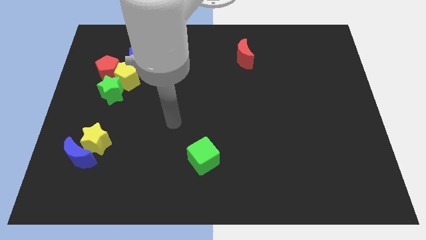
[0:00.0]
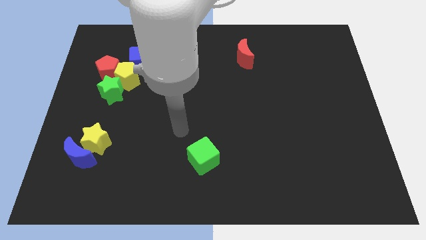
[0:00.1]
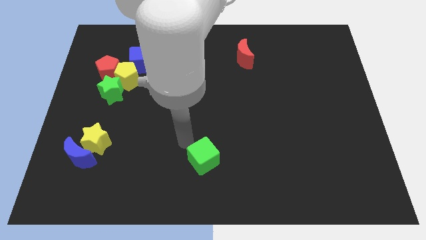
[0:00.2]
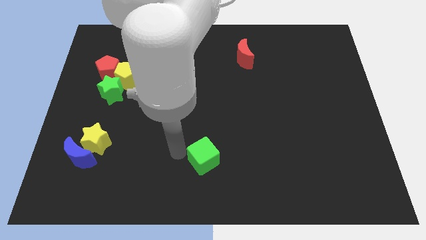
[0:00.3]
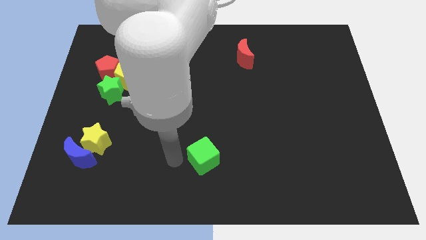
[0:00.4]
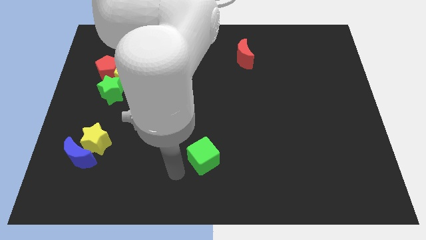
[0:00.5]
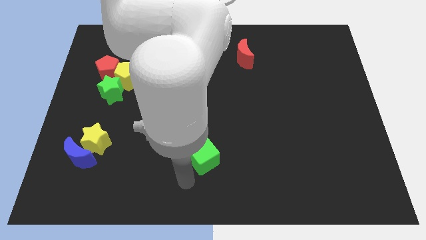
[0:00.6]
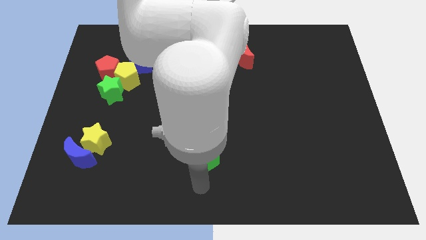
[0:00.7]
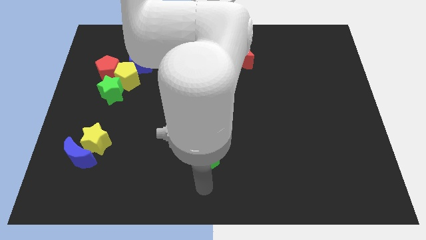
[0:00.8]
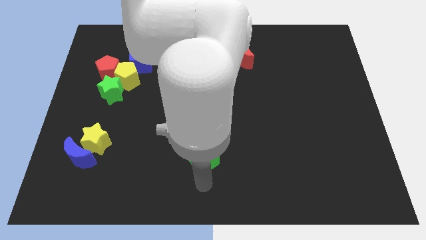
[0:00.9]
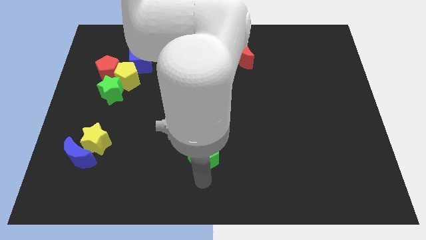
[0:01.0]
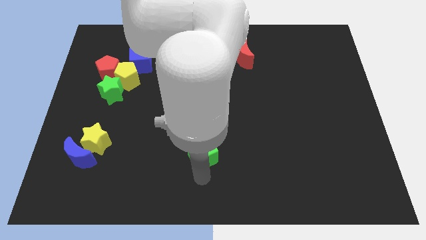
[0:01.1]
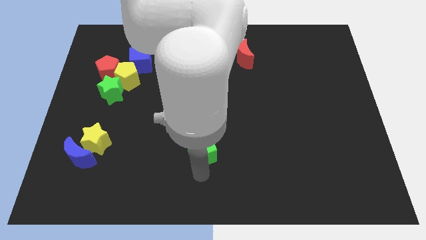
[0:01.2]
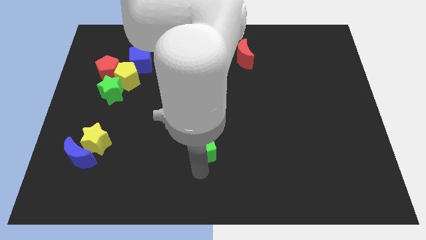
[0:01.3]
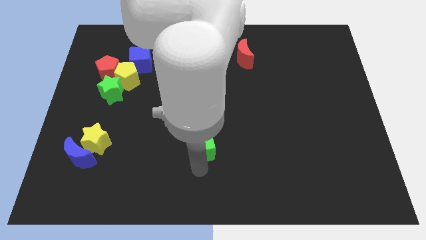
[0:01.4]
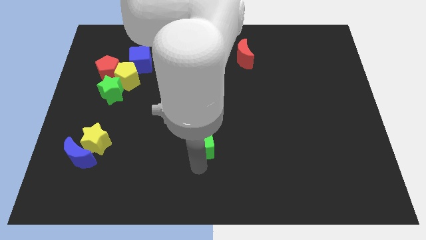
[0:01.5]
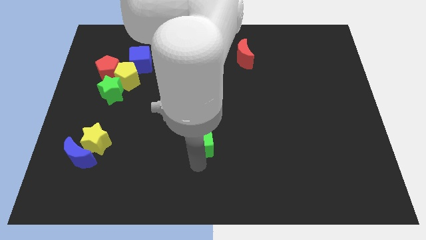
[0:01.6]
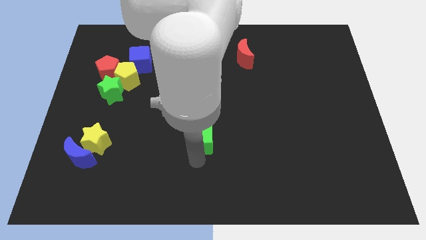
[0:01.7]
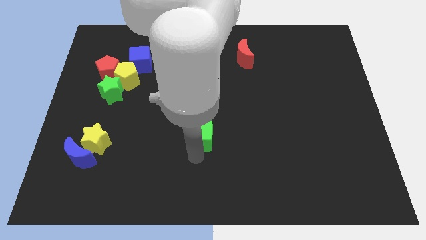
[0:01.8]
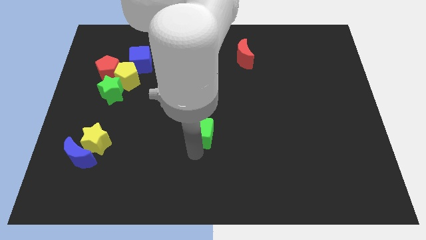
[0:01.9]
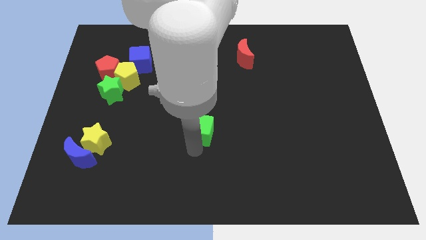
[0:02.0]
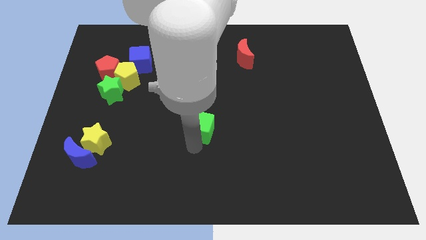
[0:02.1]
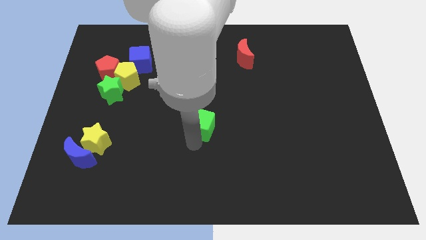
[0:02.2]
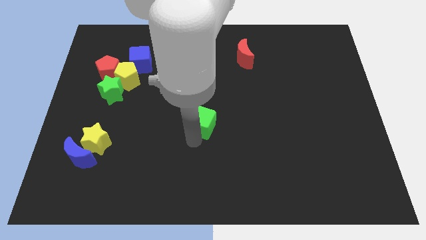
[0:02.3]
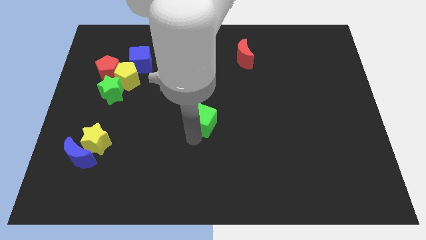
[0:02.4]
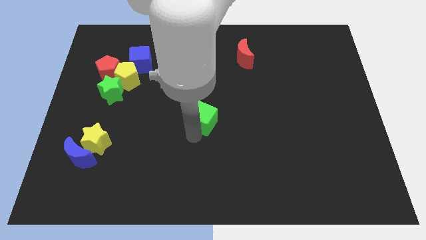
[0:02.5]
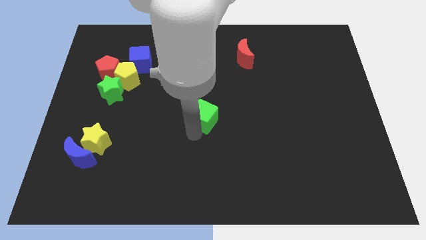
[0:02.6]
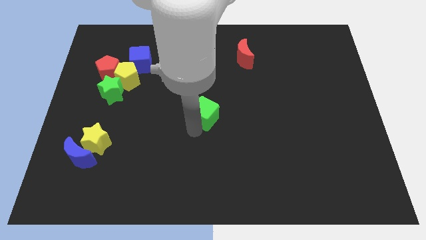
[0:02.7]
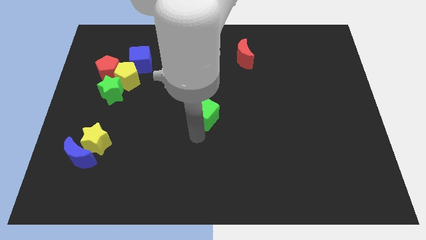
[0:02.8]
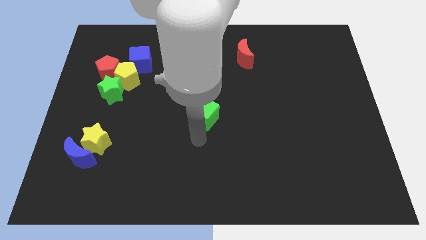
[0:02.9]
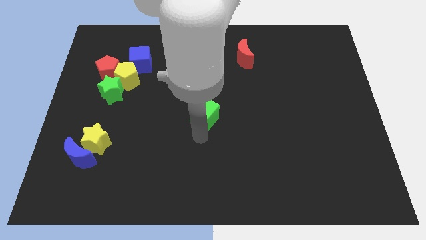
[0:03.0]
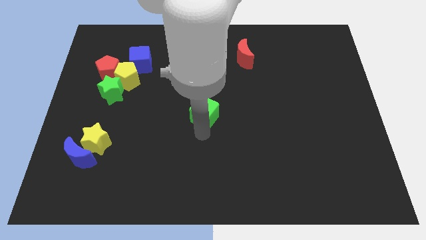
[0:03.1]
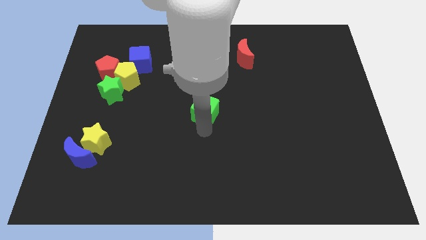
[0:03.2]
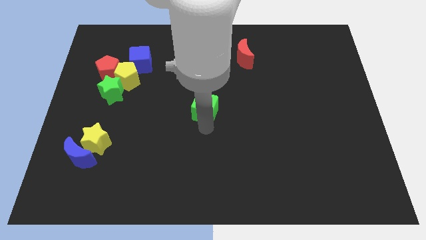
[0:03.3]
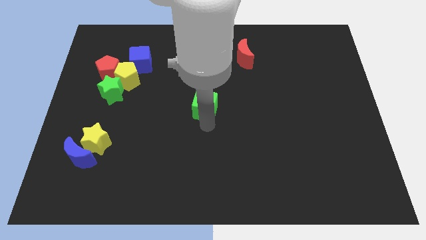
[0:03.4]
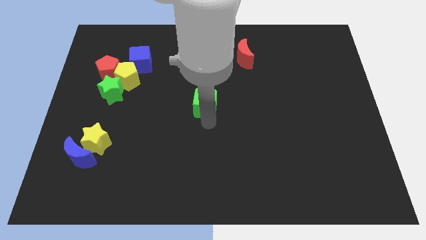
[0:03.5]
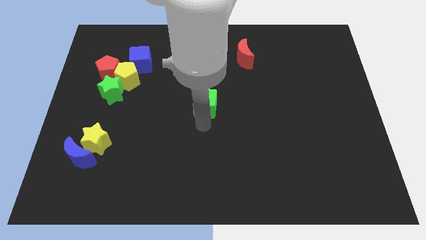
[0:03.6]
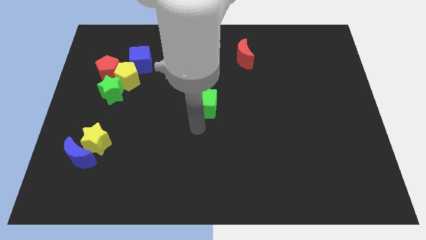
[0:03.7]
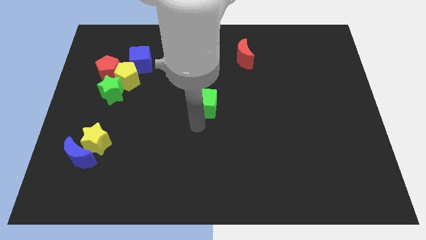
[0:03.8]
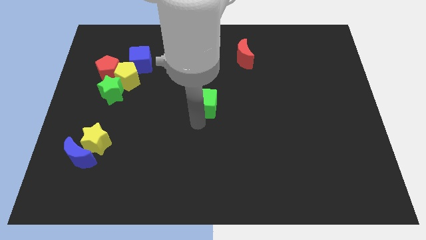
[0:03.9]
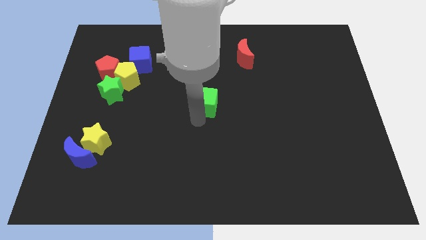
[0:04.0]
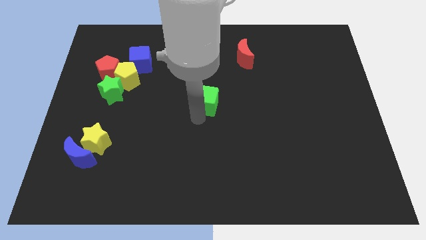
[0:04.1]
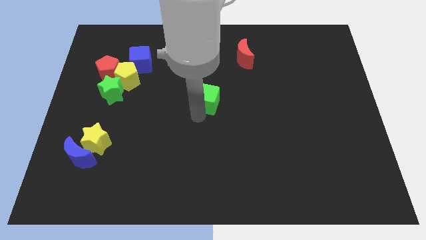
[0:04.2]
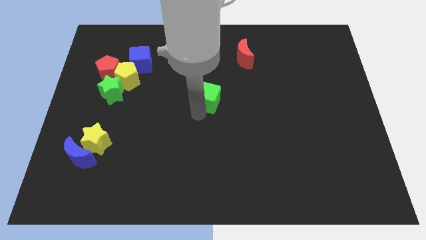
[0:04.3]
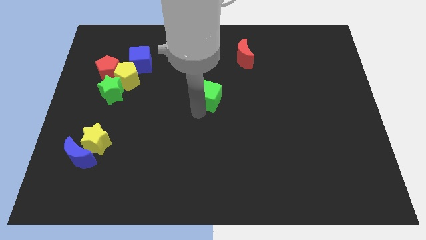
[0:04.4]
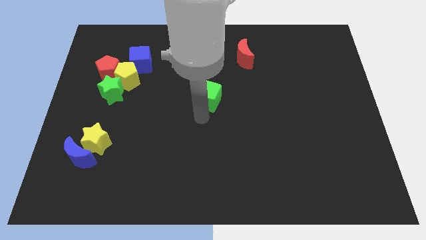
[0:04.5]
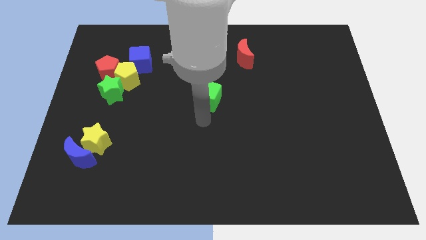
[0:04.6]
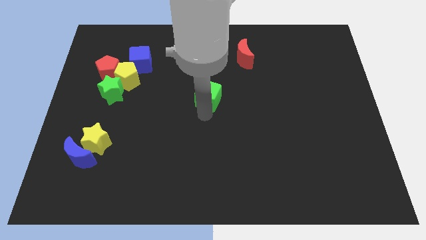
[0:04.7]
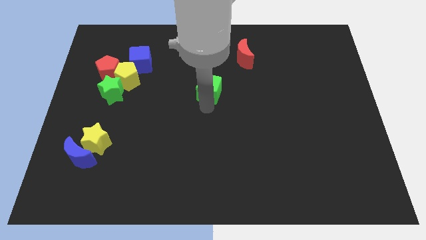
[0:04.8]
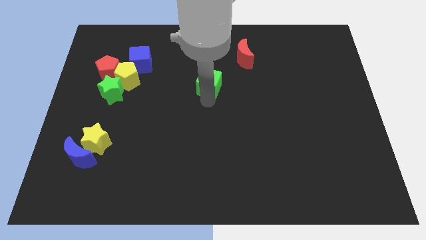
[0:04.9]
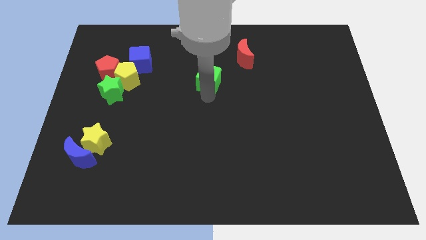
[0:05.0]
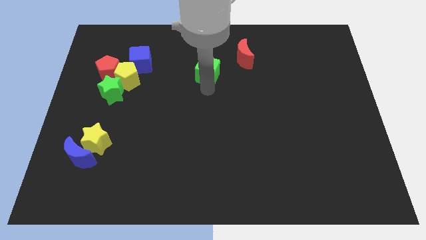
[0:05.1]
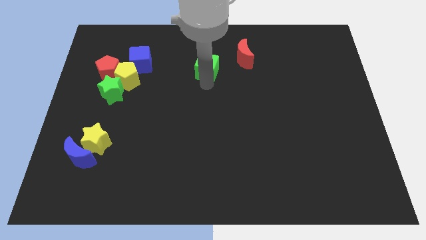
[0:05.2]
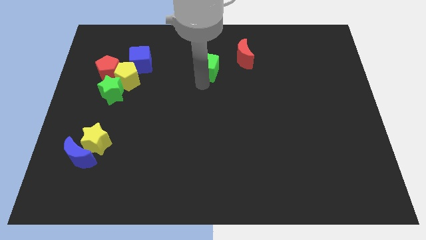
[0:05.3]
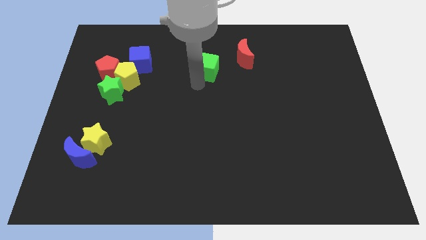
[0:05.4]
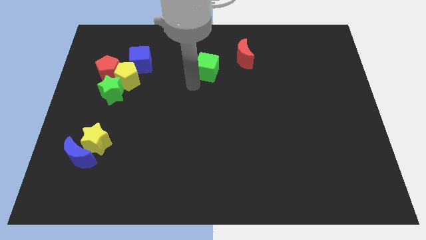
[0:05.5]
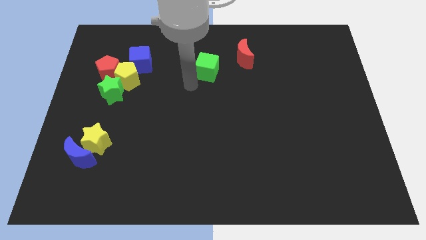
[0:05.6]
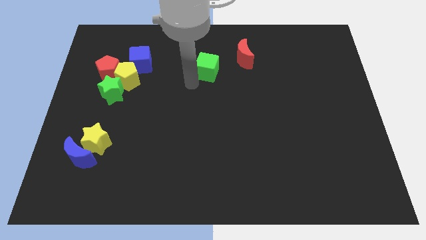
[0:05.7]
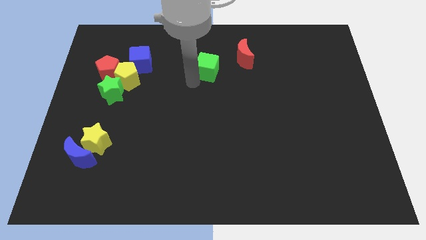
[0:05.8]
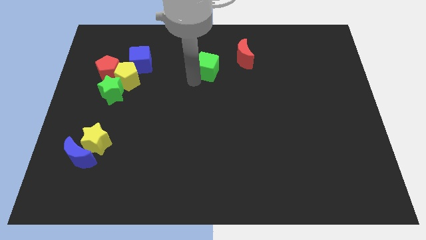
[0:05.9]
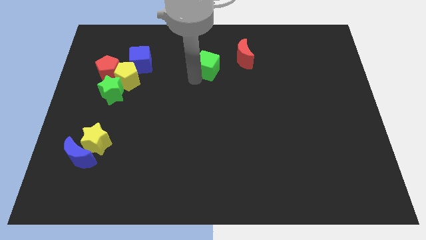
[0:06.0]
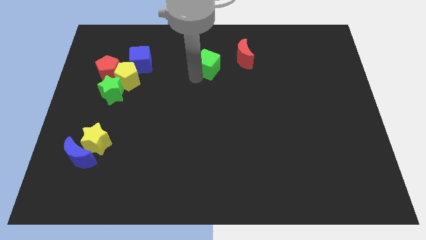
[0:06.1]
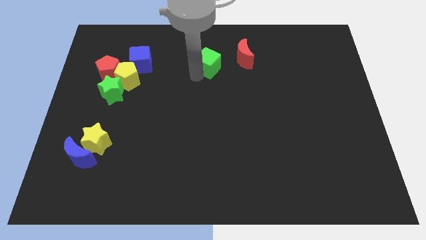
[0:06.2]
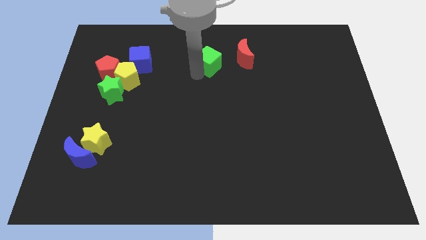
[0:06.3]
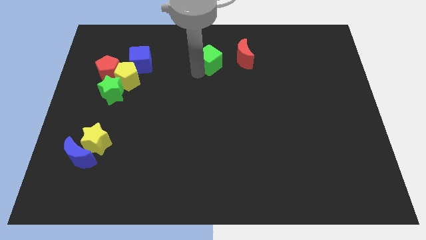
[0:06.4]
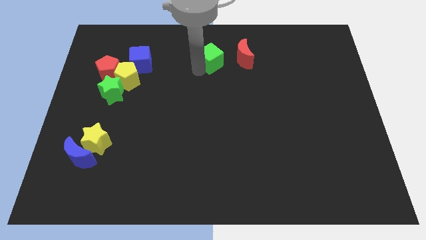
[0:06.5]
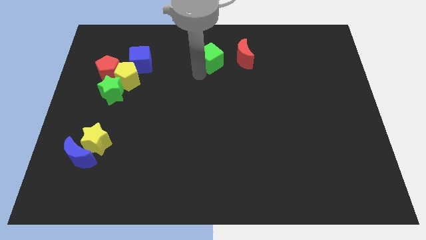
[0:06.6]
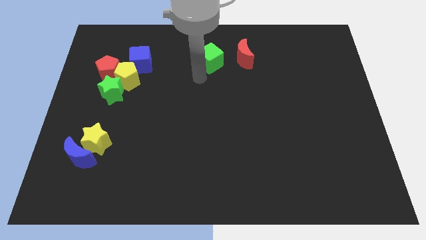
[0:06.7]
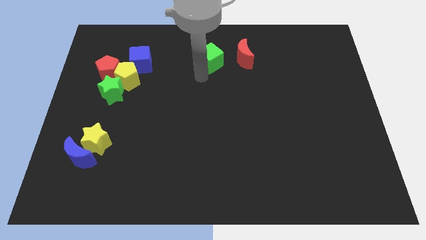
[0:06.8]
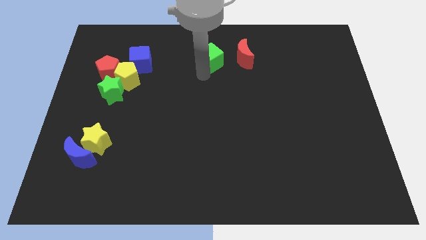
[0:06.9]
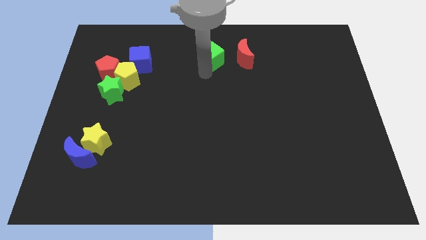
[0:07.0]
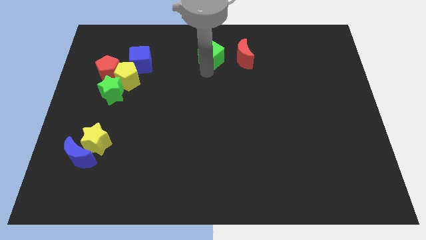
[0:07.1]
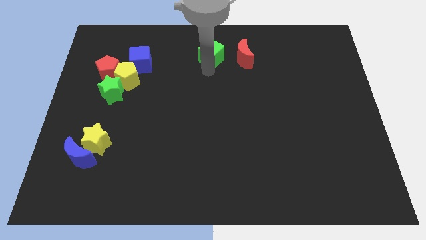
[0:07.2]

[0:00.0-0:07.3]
put the green cube to the top side
